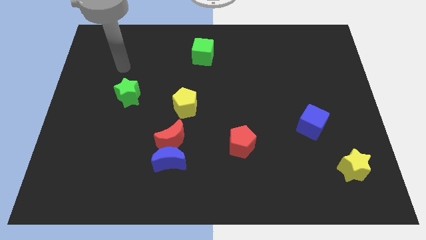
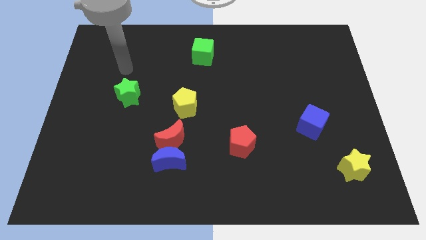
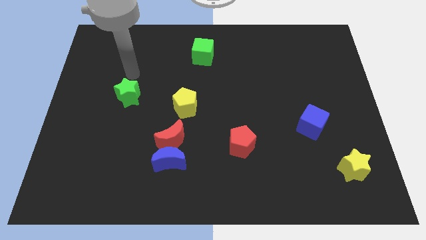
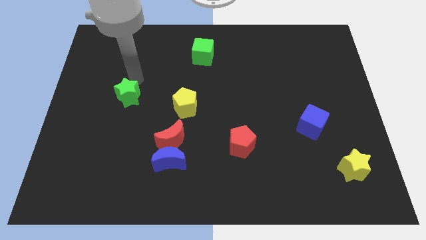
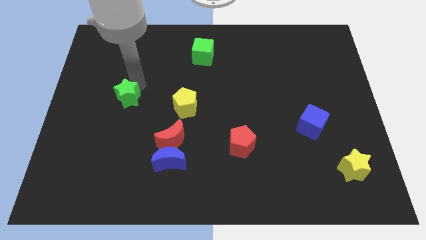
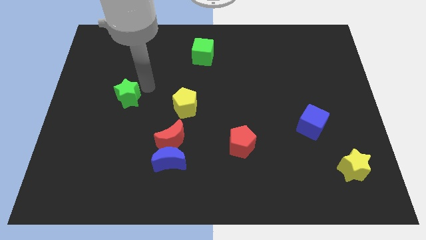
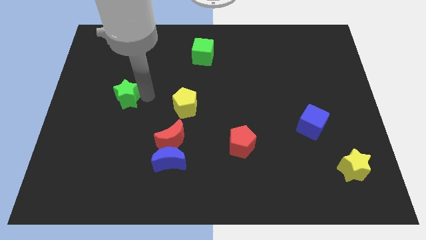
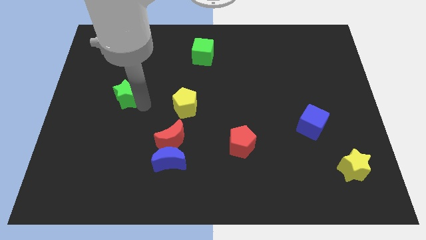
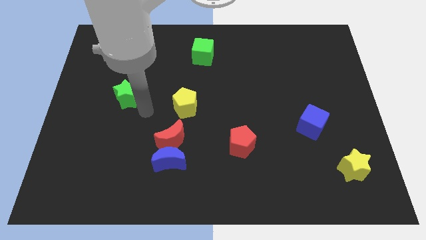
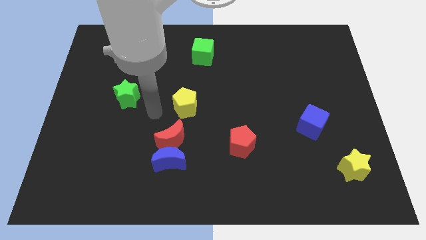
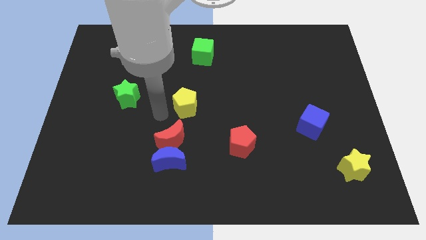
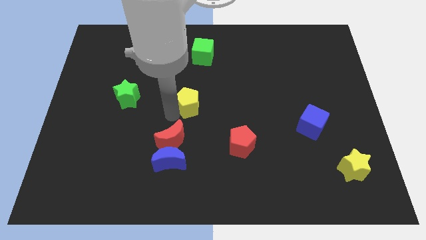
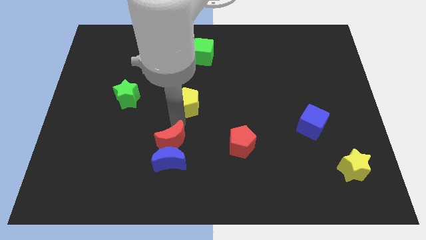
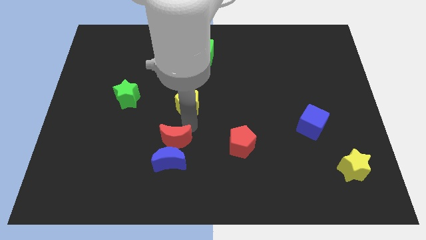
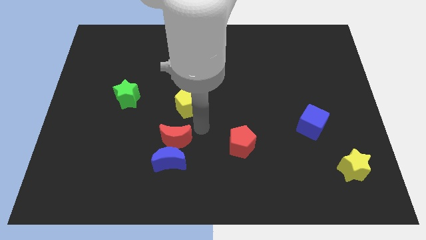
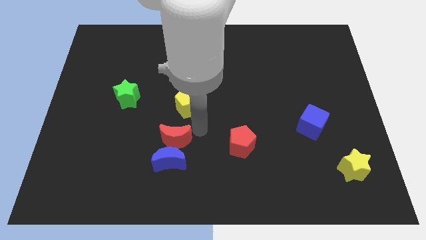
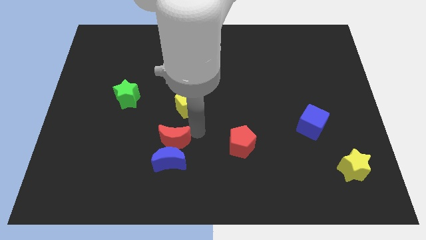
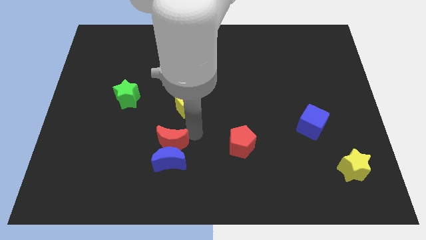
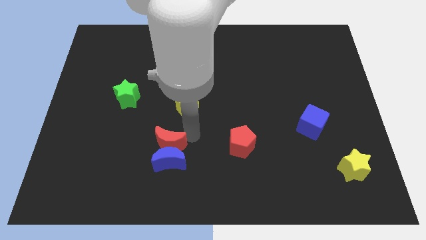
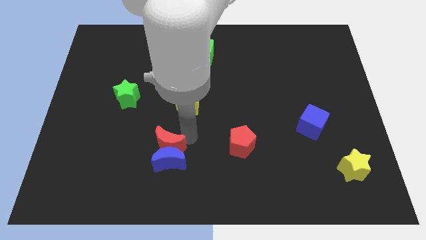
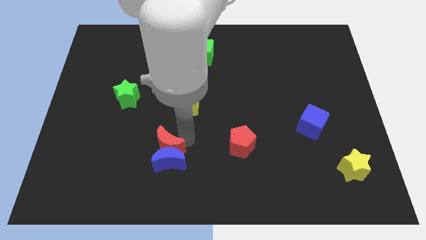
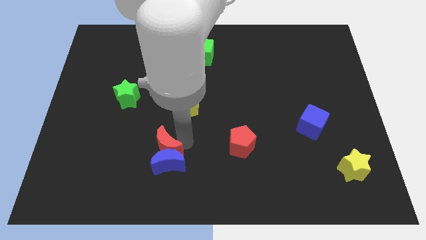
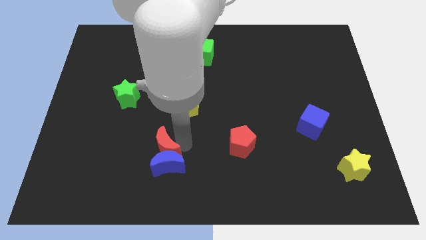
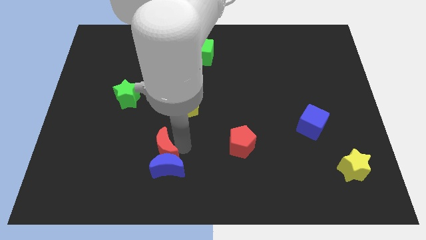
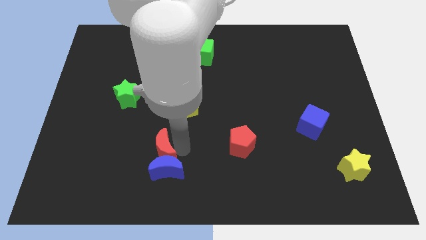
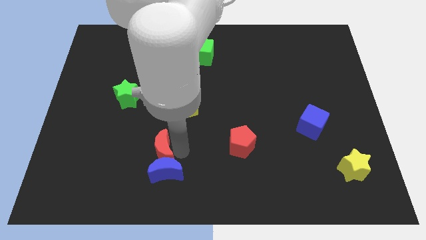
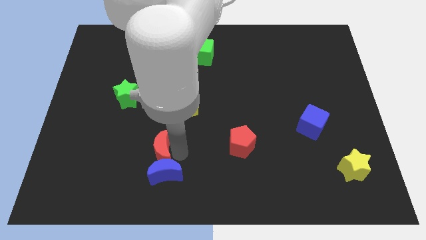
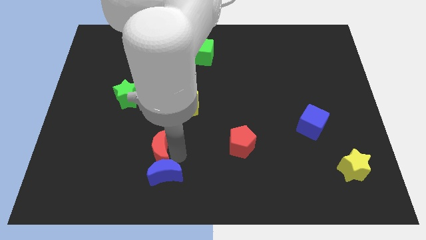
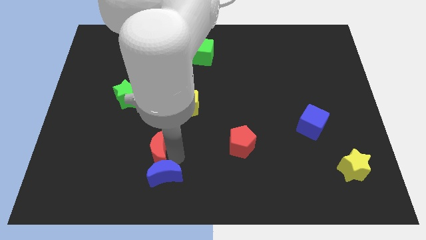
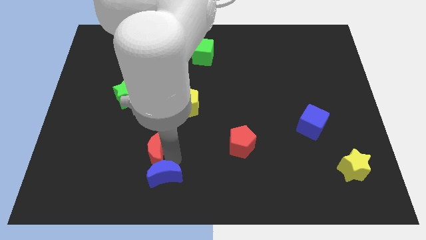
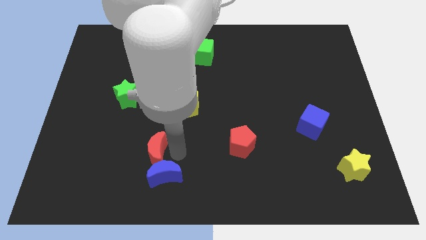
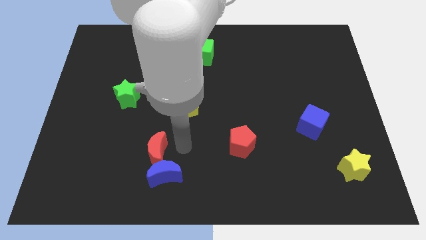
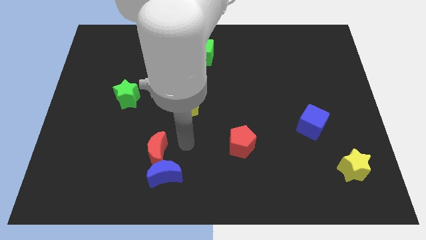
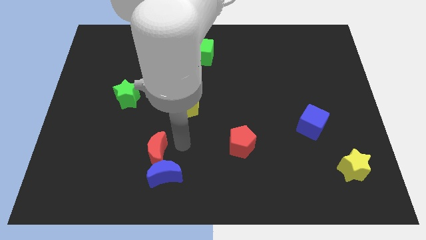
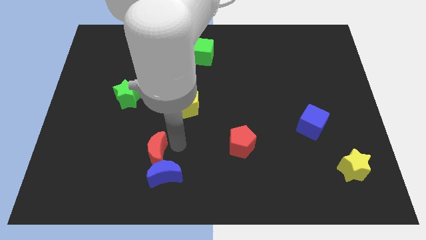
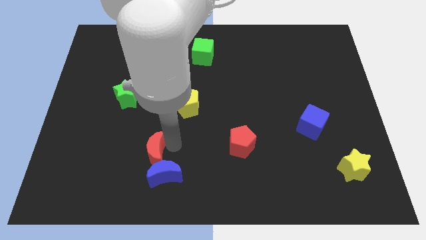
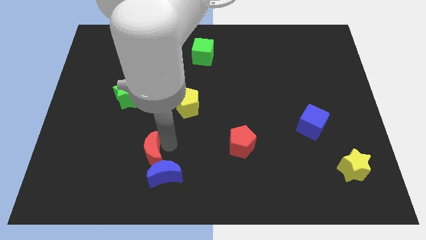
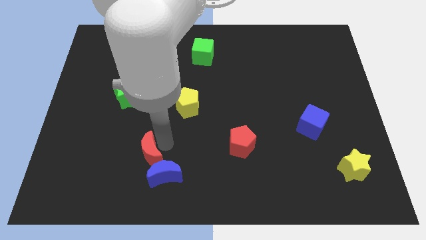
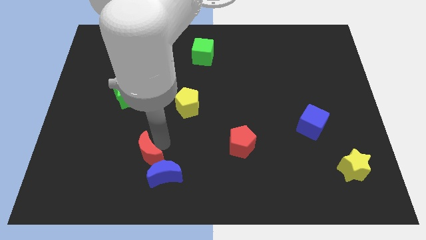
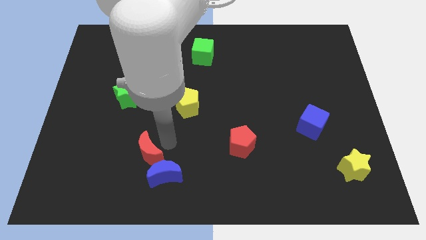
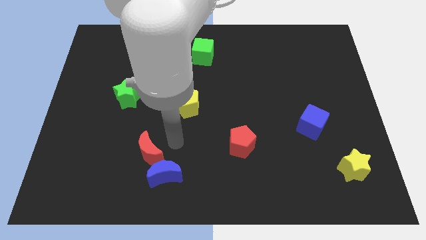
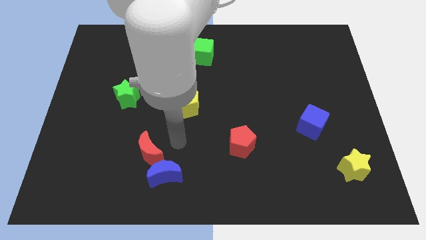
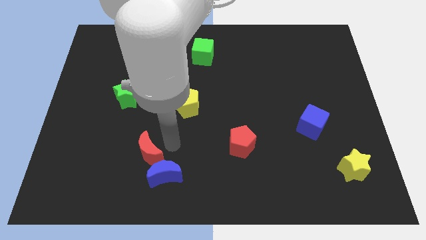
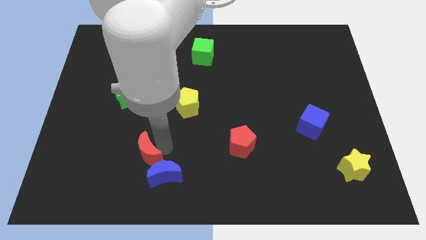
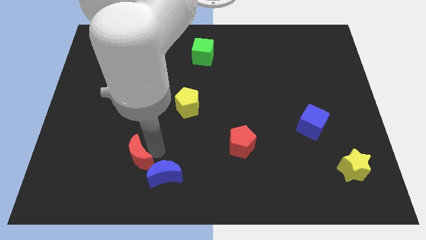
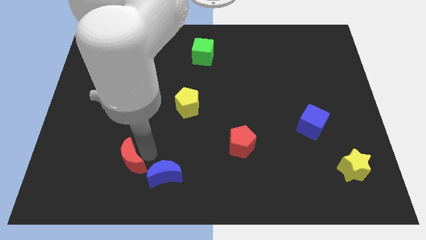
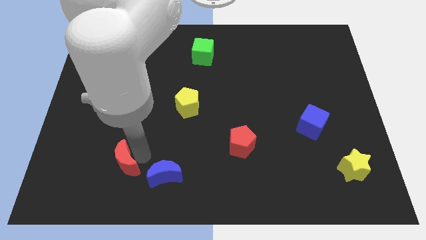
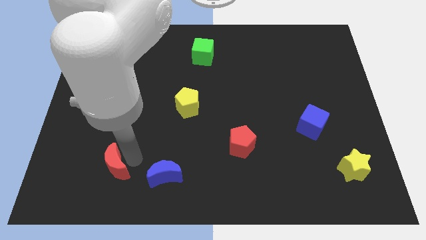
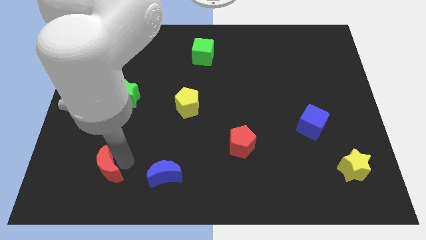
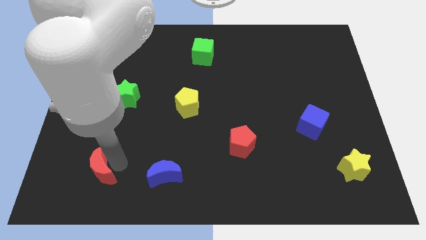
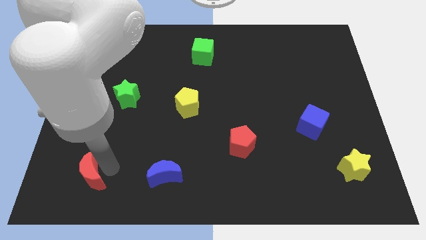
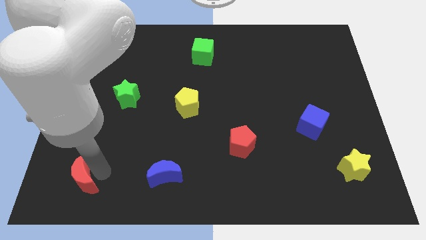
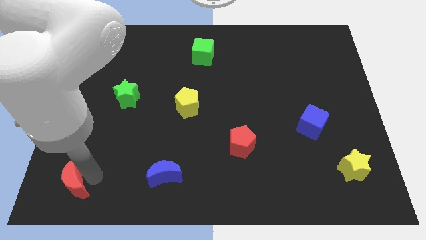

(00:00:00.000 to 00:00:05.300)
slide the red moon to the bottom left

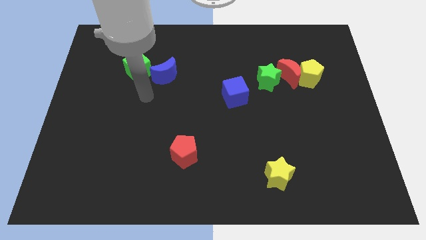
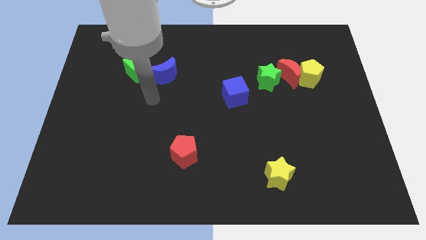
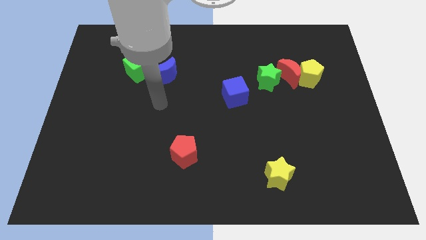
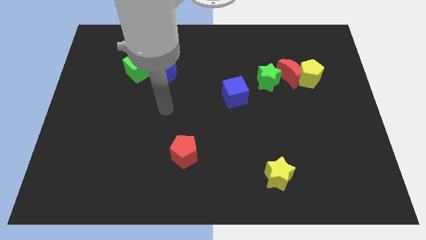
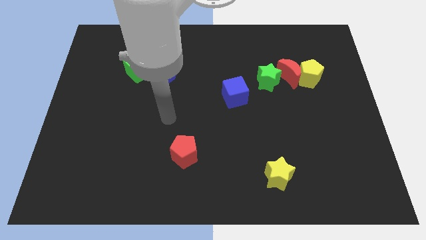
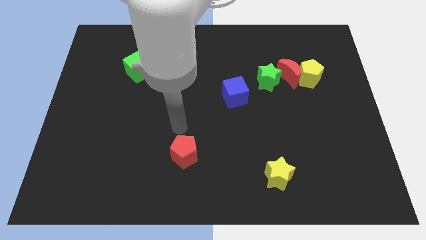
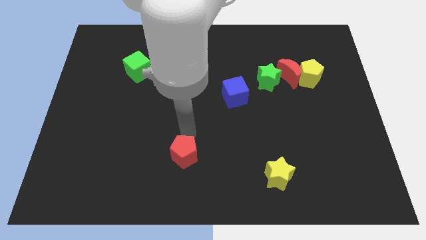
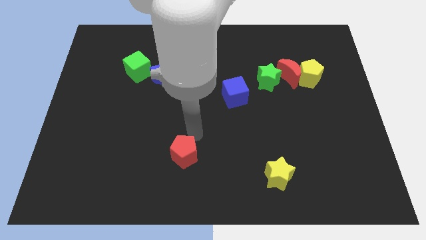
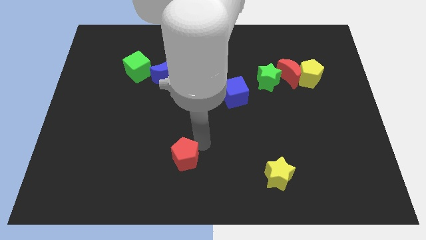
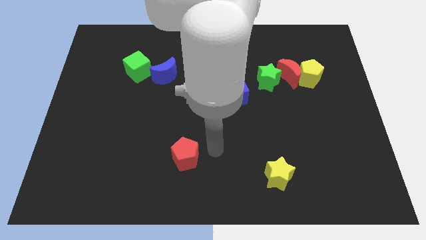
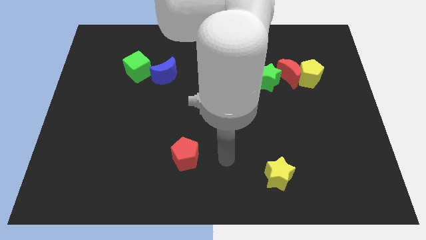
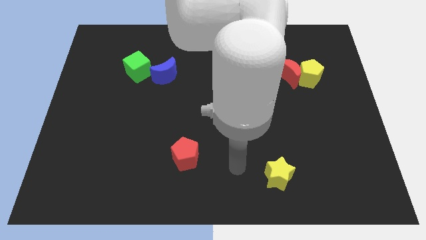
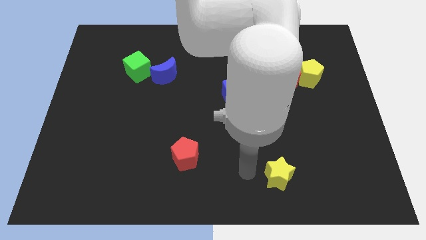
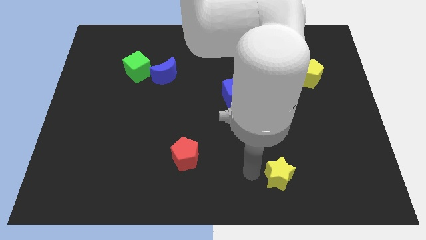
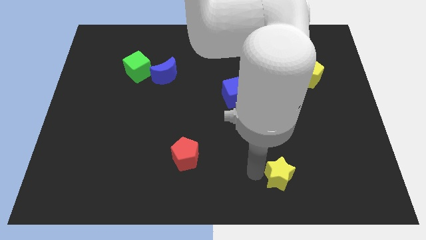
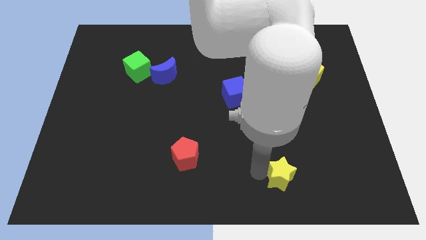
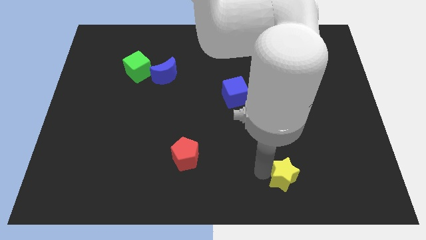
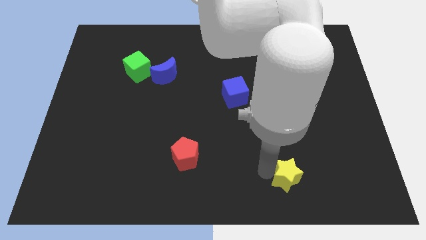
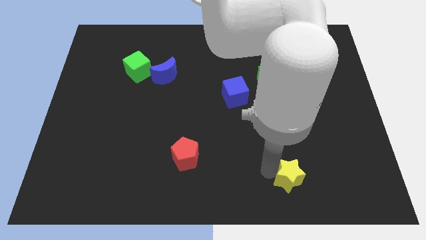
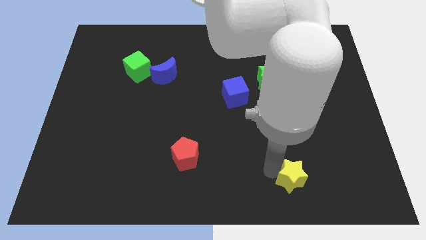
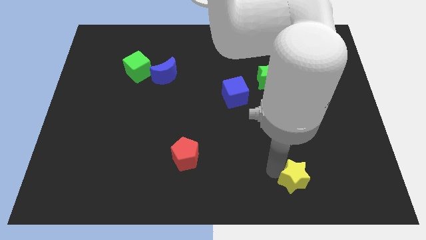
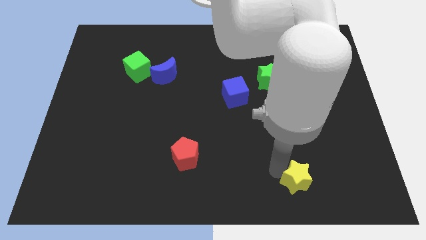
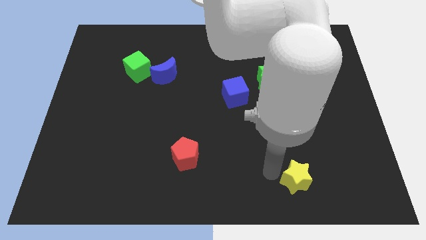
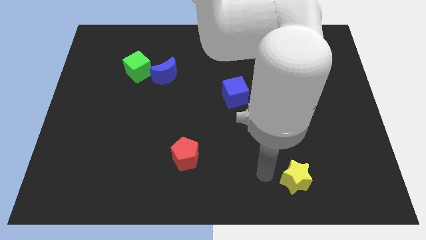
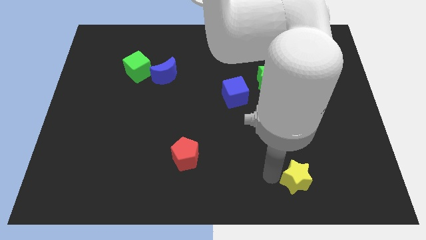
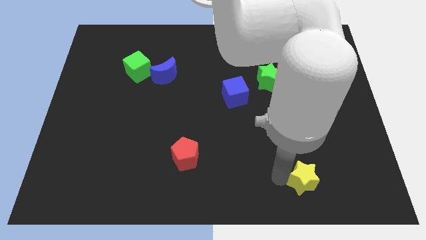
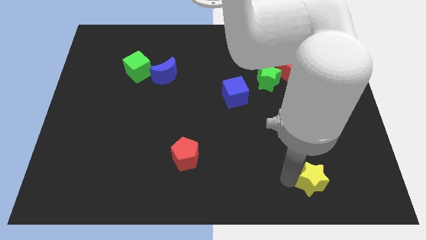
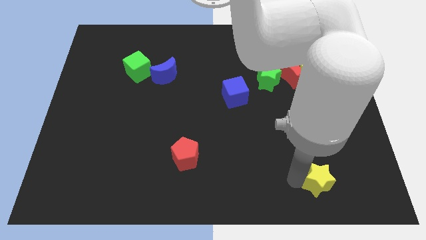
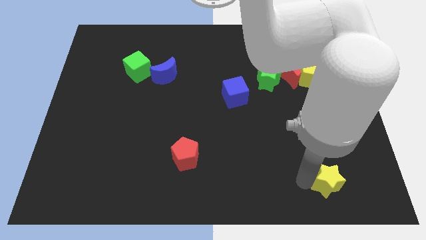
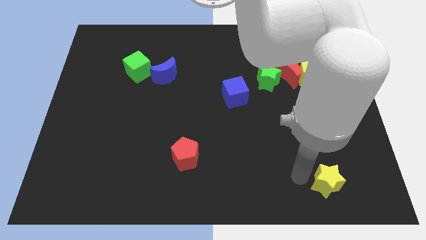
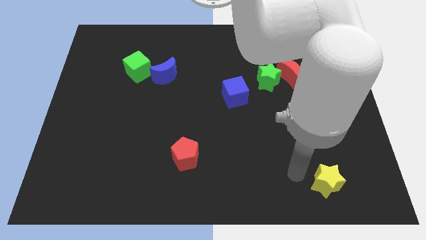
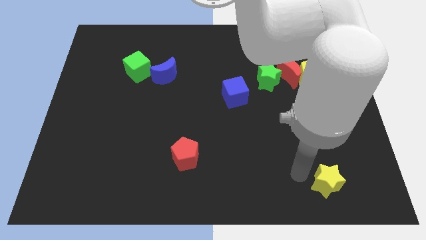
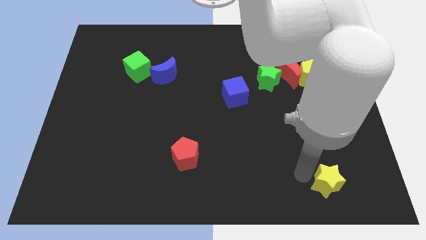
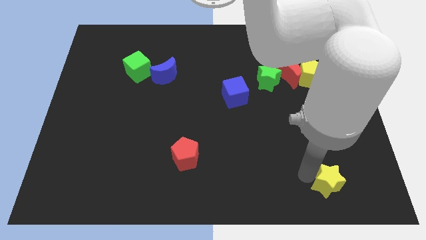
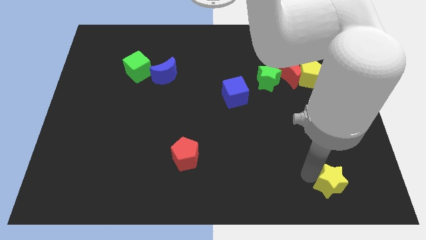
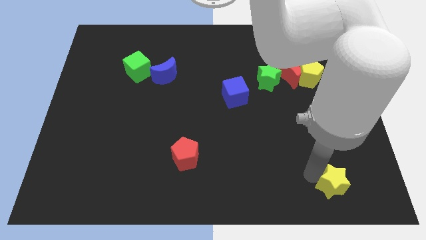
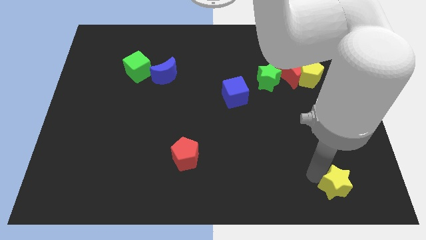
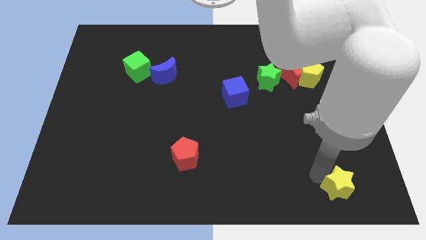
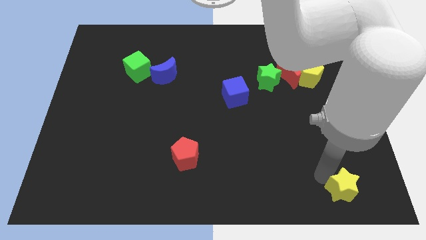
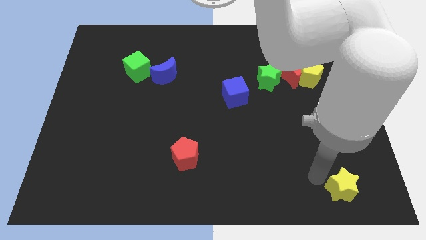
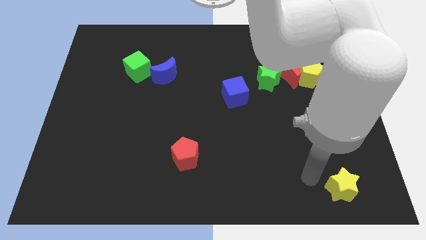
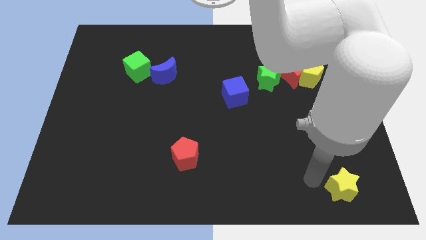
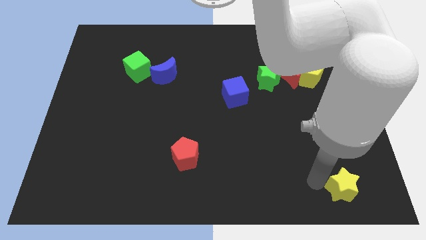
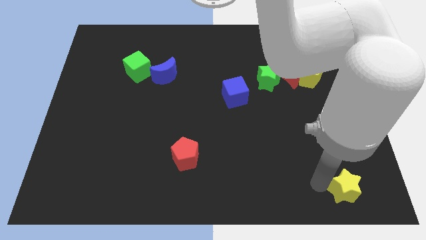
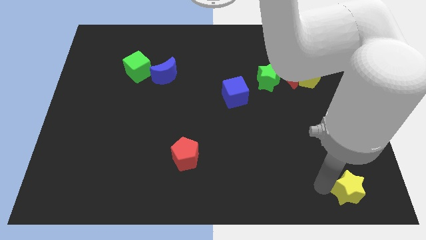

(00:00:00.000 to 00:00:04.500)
push the yellow star to the bottom right
